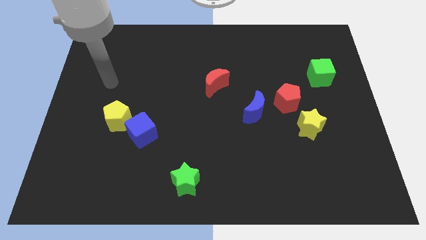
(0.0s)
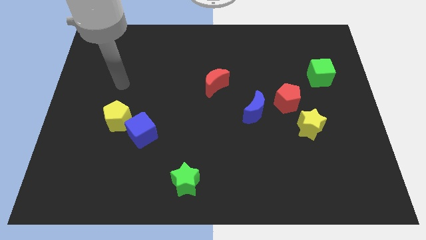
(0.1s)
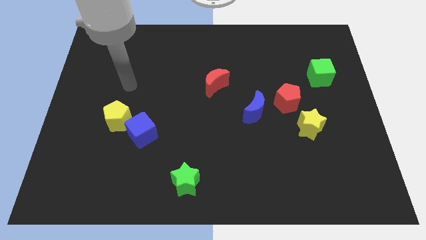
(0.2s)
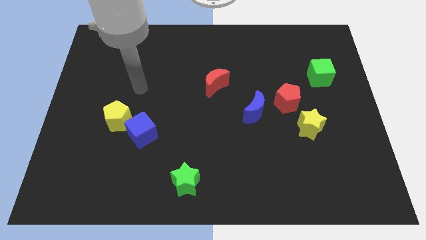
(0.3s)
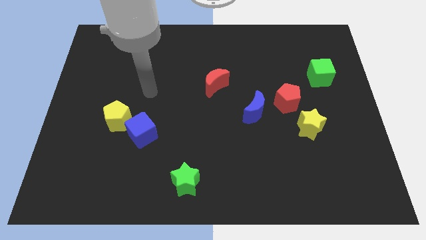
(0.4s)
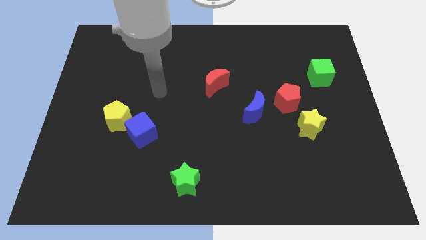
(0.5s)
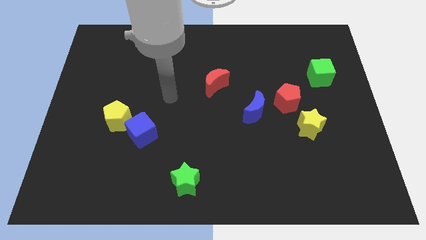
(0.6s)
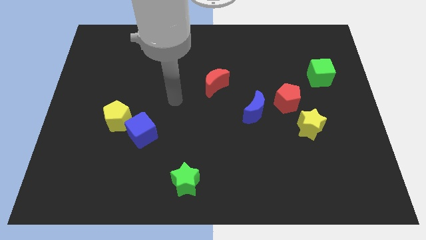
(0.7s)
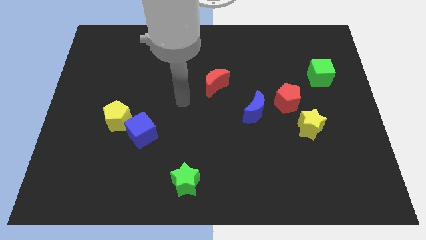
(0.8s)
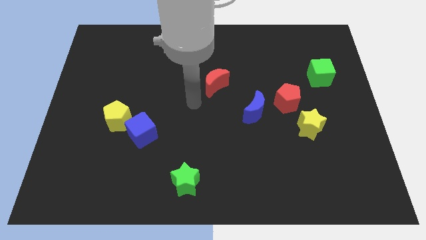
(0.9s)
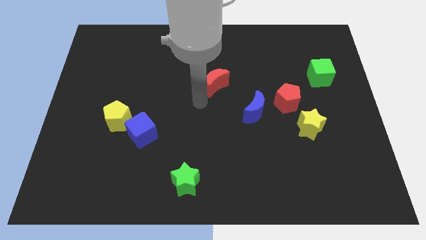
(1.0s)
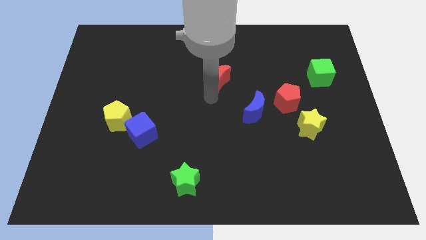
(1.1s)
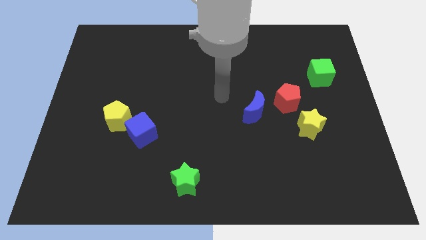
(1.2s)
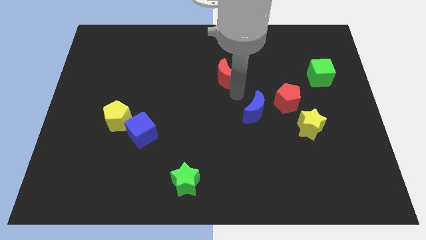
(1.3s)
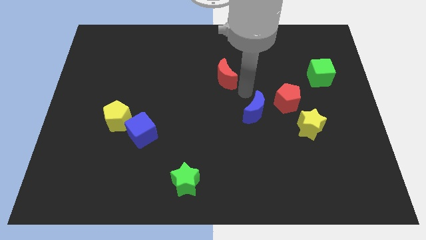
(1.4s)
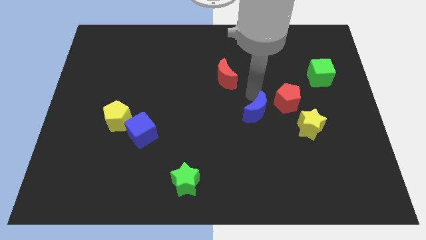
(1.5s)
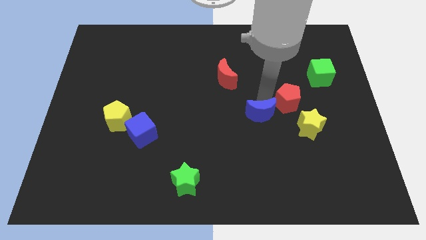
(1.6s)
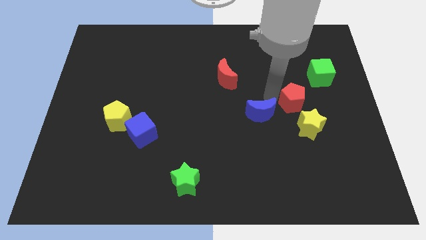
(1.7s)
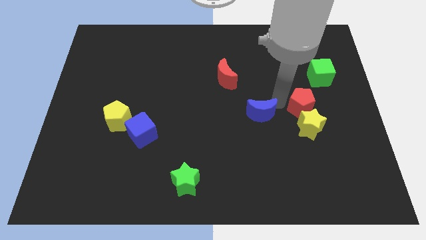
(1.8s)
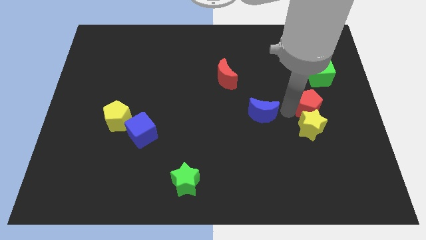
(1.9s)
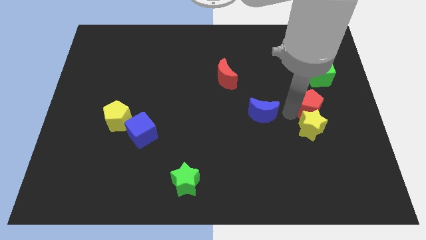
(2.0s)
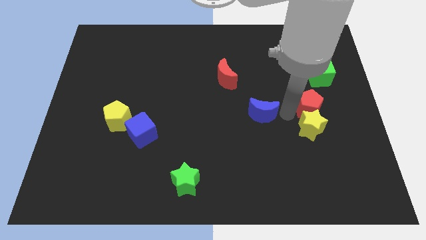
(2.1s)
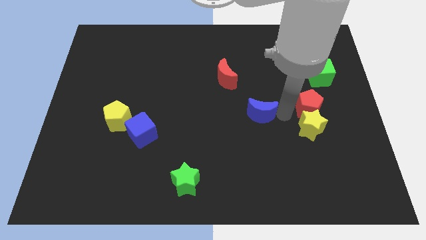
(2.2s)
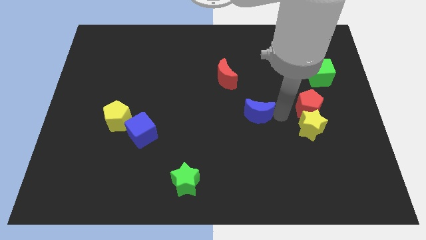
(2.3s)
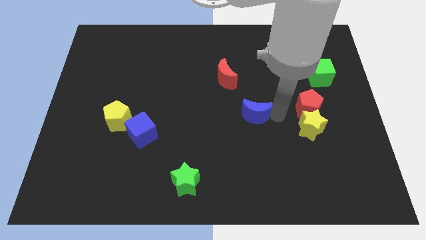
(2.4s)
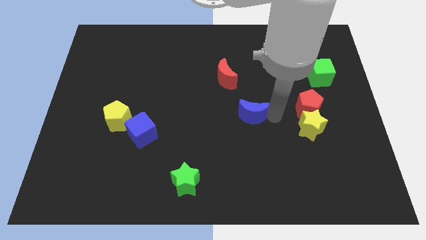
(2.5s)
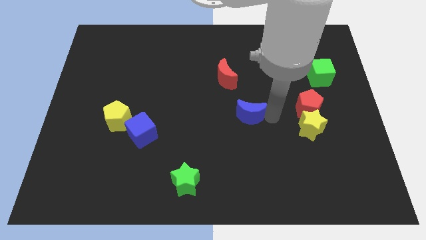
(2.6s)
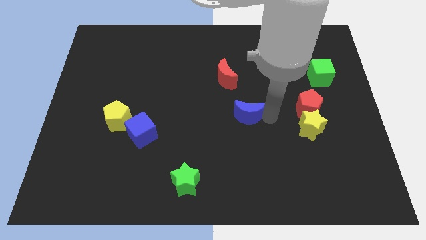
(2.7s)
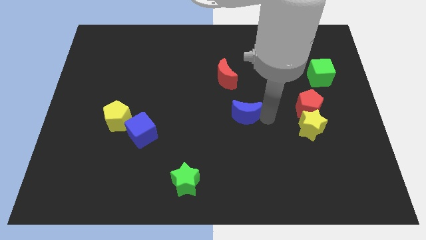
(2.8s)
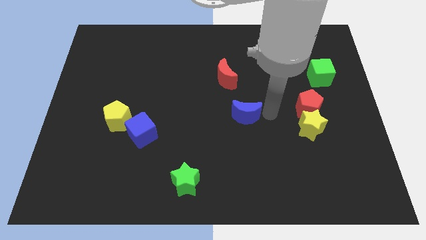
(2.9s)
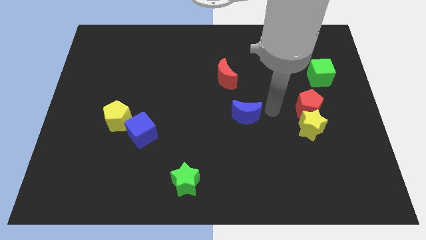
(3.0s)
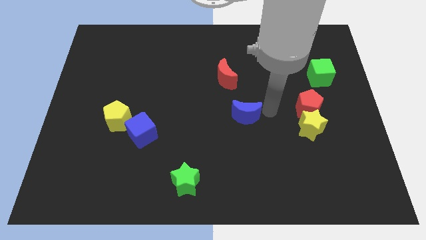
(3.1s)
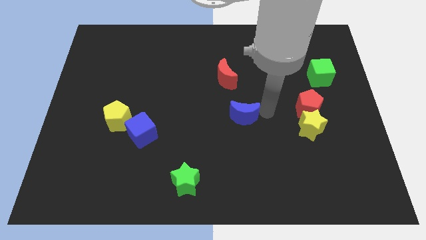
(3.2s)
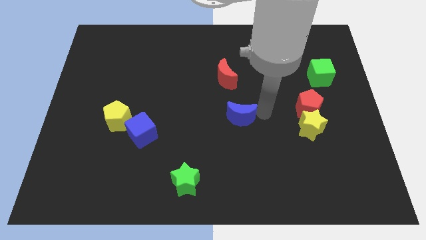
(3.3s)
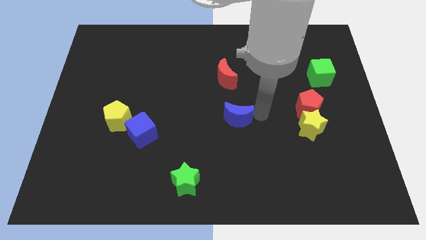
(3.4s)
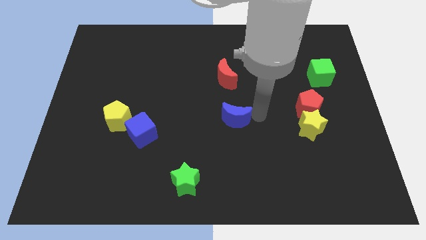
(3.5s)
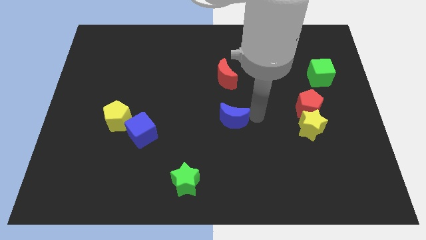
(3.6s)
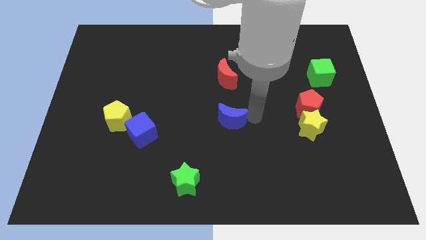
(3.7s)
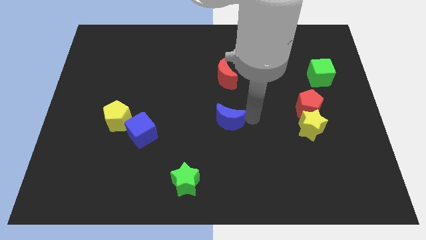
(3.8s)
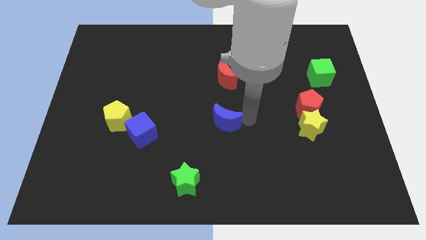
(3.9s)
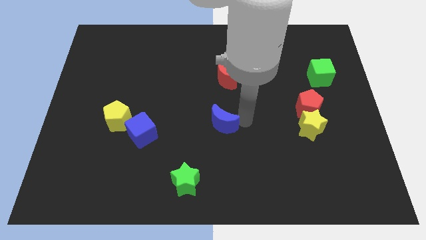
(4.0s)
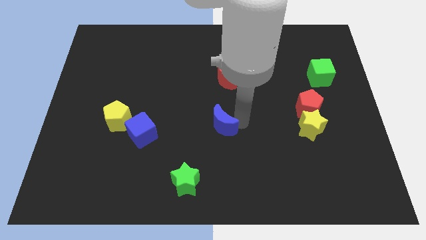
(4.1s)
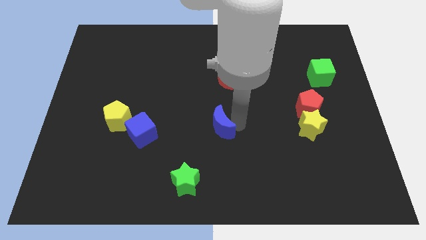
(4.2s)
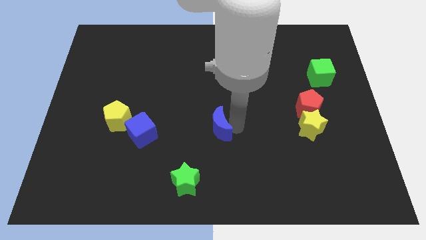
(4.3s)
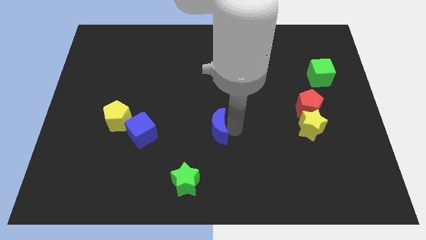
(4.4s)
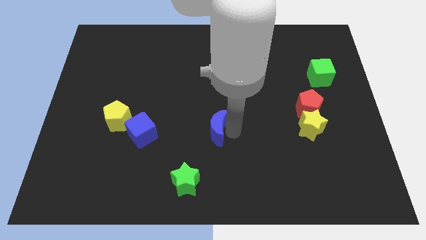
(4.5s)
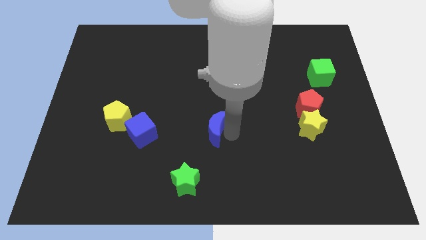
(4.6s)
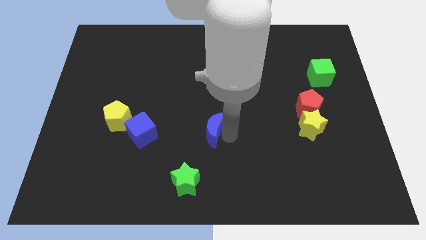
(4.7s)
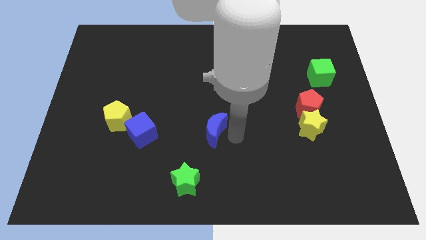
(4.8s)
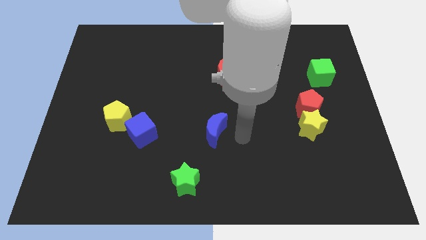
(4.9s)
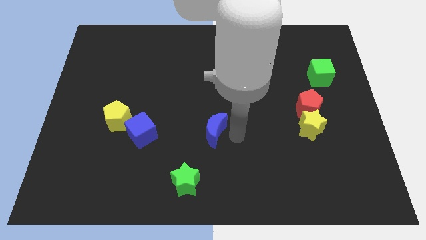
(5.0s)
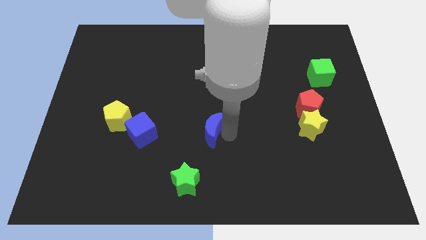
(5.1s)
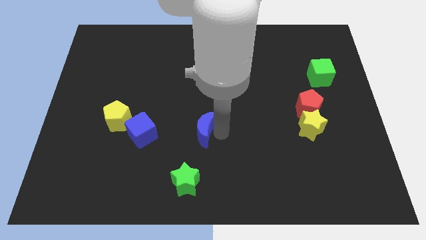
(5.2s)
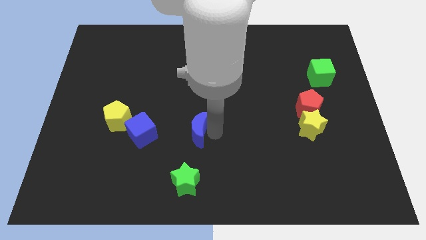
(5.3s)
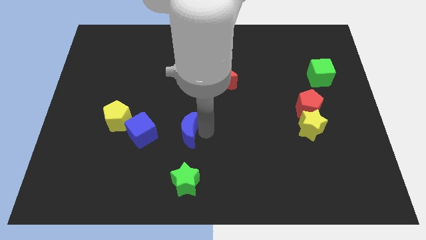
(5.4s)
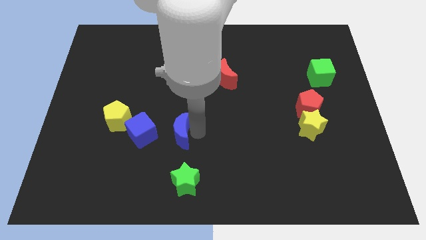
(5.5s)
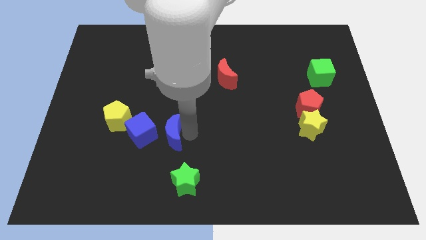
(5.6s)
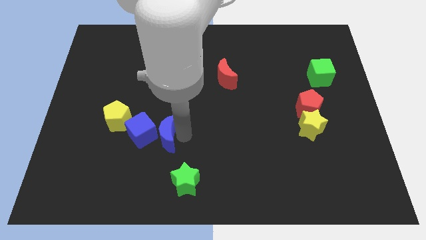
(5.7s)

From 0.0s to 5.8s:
move the blue moon towards the blue cube

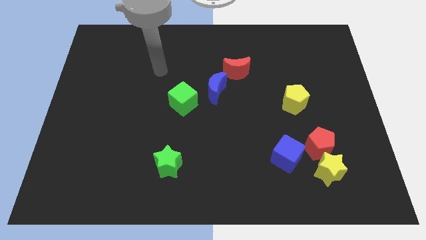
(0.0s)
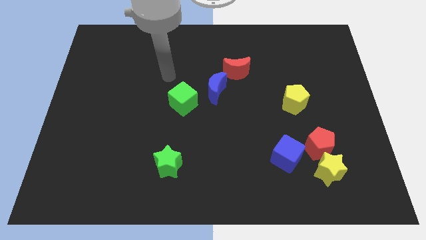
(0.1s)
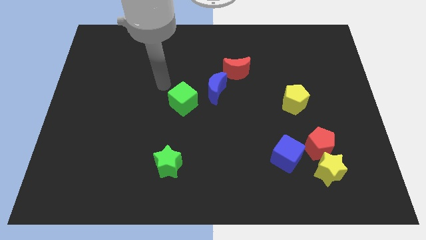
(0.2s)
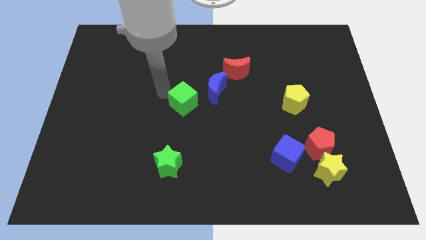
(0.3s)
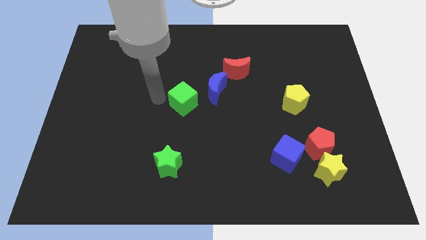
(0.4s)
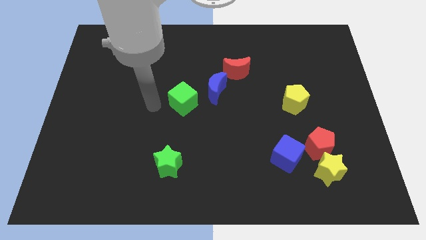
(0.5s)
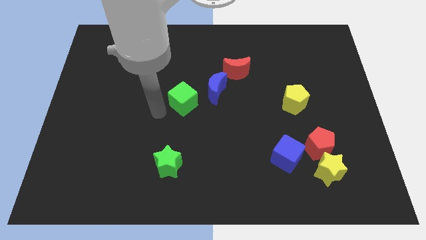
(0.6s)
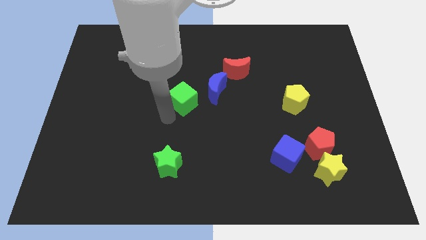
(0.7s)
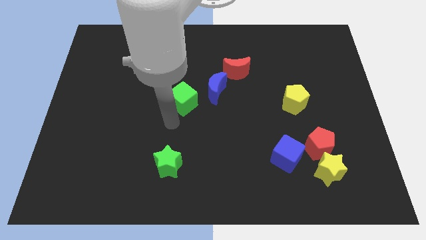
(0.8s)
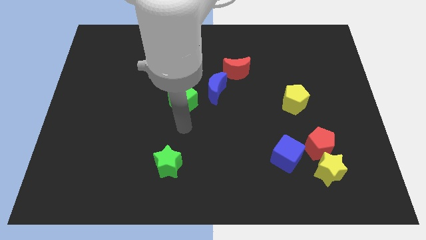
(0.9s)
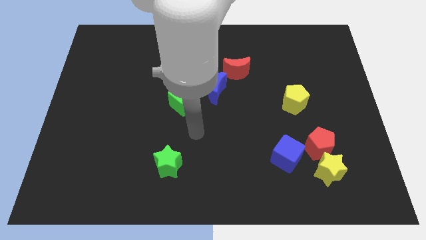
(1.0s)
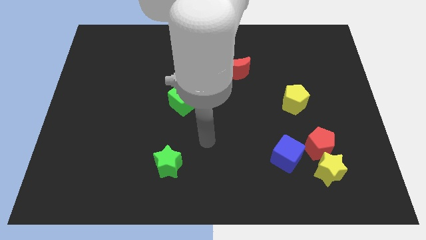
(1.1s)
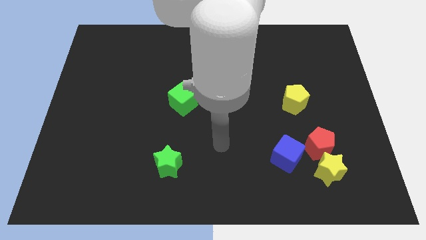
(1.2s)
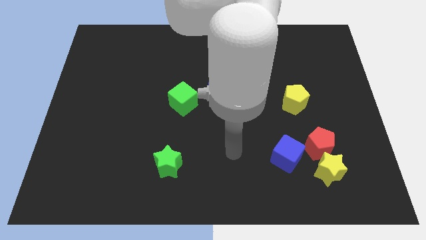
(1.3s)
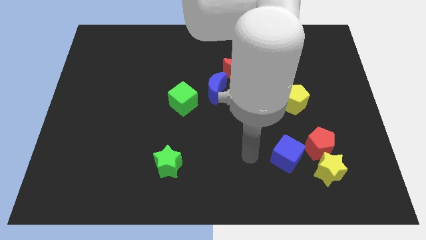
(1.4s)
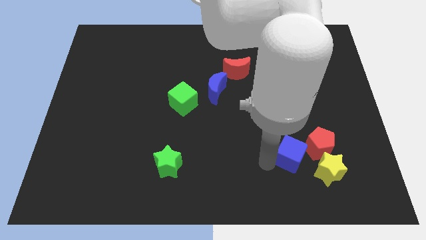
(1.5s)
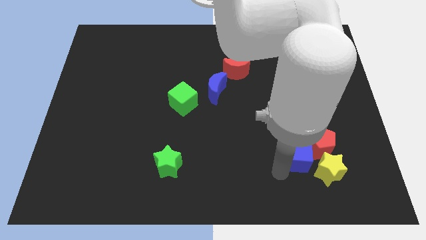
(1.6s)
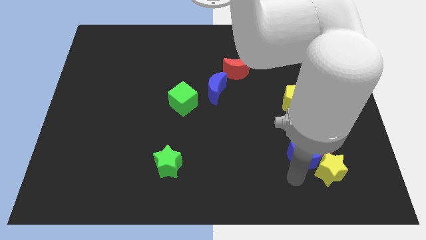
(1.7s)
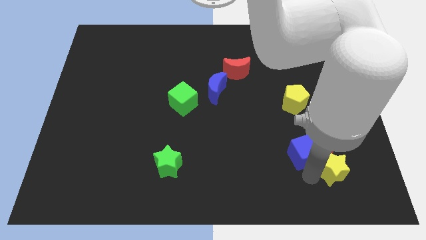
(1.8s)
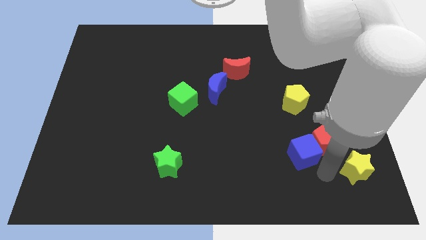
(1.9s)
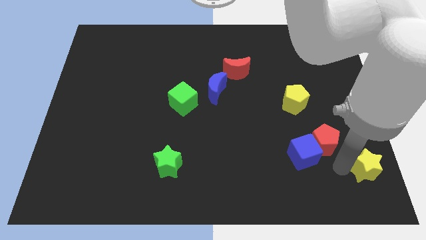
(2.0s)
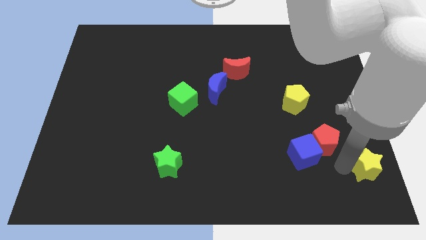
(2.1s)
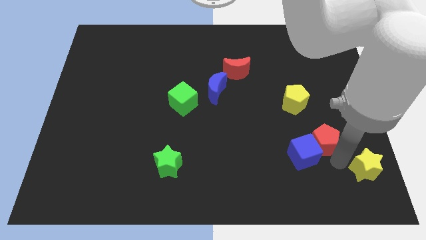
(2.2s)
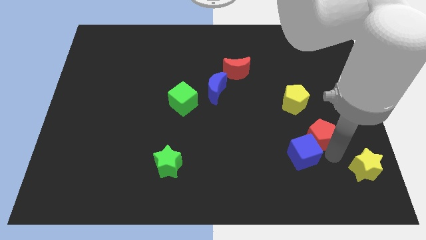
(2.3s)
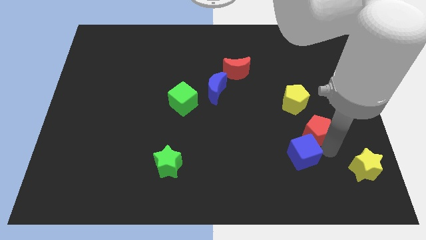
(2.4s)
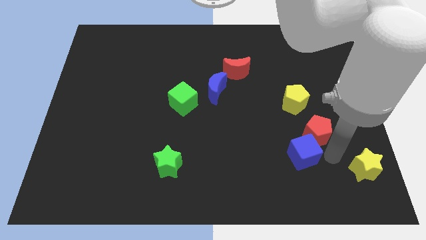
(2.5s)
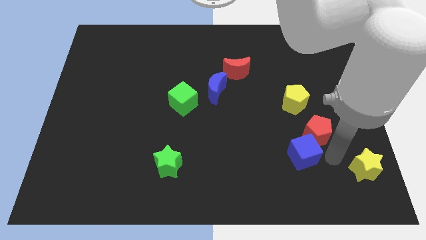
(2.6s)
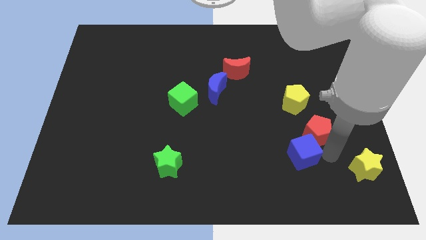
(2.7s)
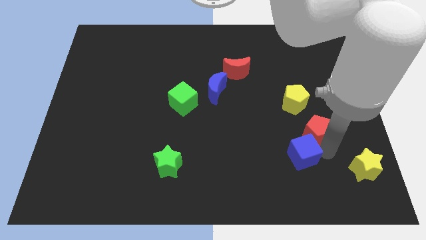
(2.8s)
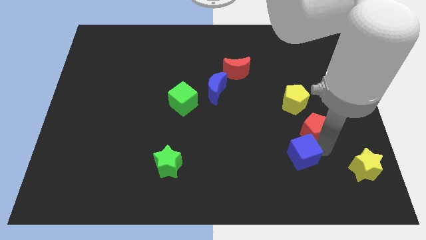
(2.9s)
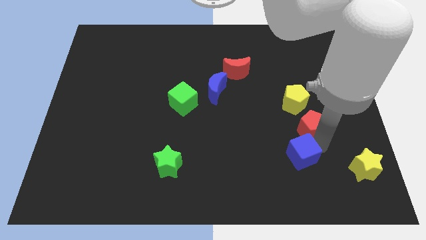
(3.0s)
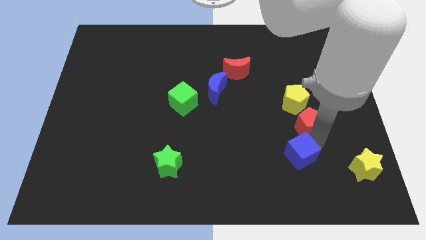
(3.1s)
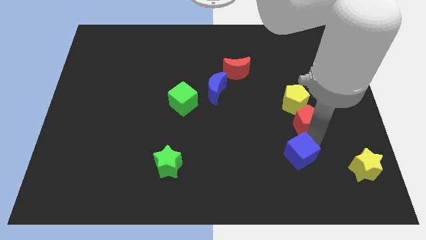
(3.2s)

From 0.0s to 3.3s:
move the red pentagon close to the yellow pentagon
